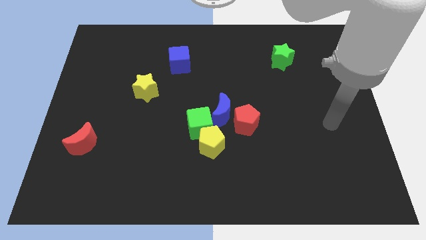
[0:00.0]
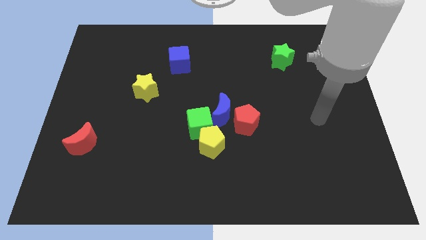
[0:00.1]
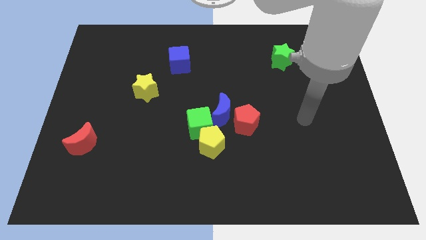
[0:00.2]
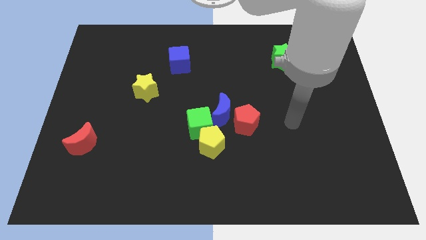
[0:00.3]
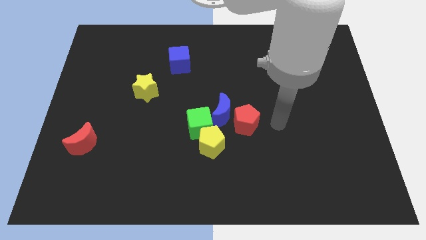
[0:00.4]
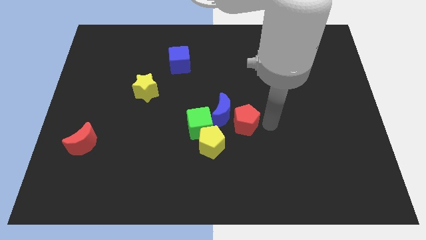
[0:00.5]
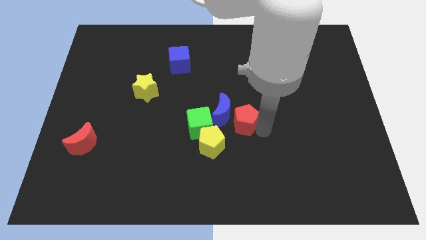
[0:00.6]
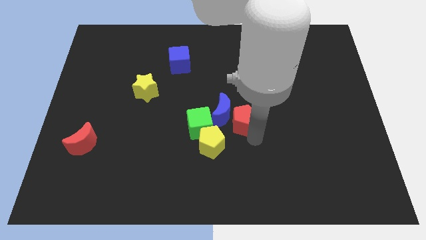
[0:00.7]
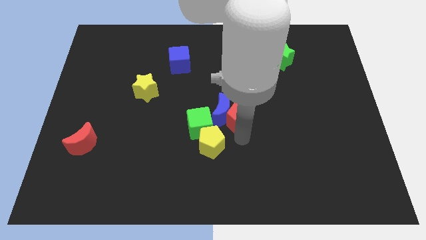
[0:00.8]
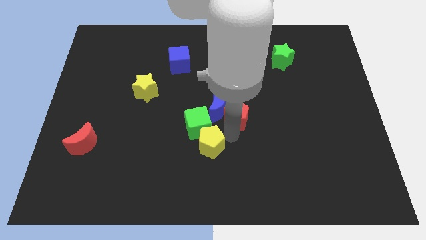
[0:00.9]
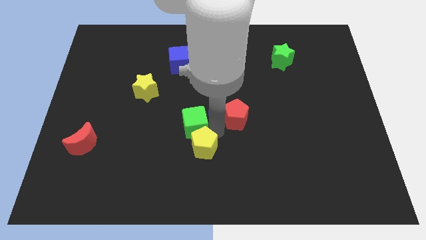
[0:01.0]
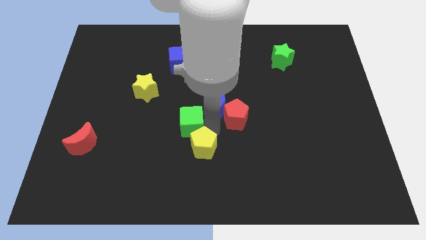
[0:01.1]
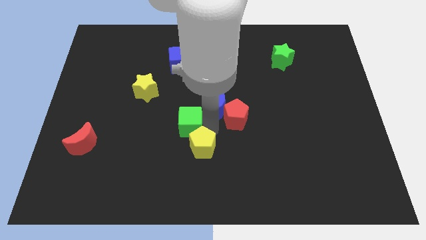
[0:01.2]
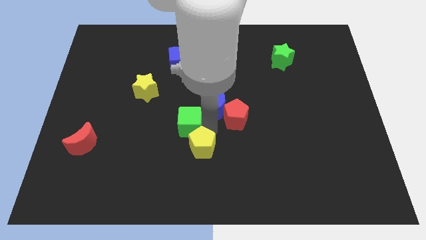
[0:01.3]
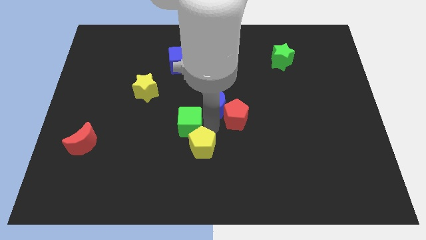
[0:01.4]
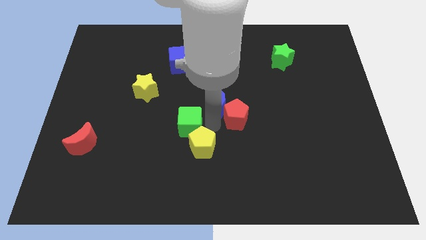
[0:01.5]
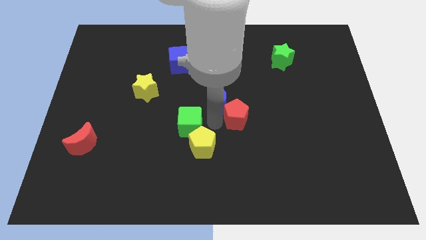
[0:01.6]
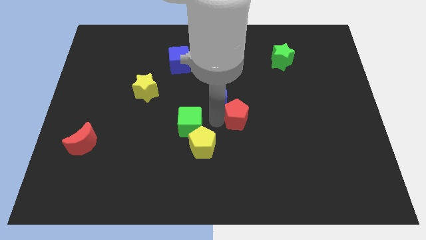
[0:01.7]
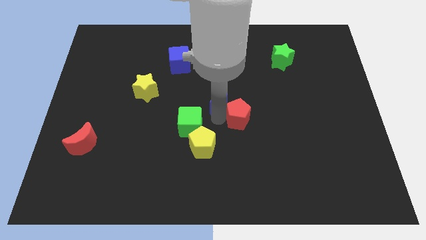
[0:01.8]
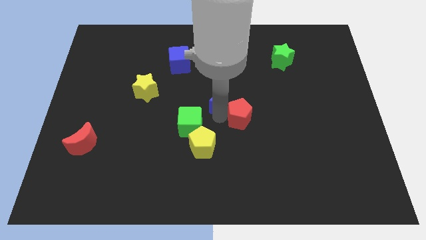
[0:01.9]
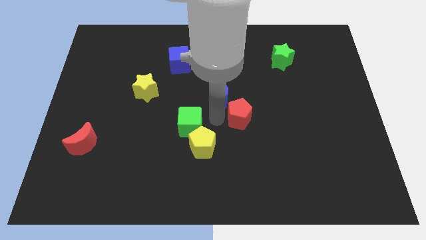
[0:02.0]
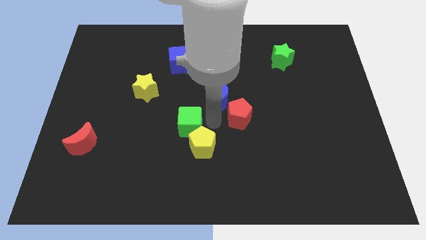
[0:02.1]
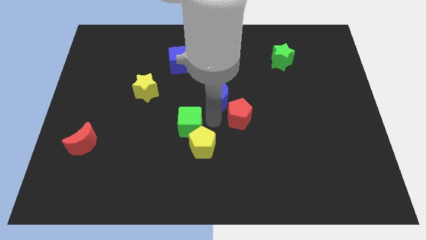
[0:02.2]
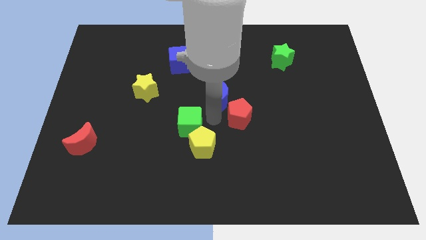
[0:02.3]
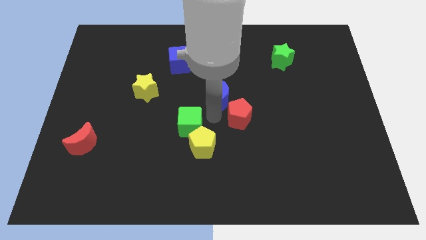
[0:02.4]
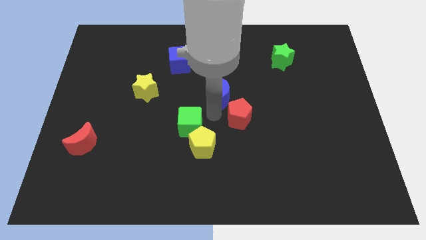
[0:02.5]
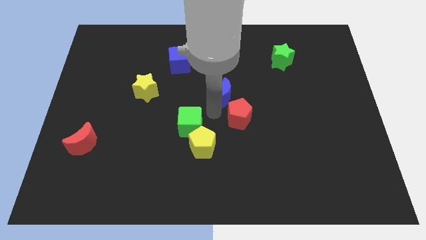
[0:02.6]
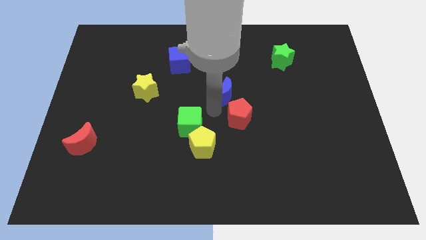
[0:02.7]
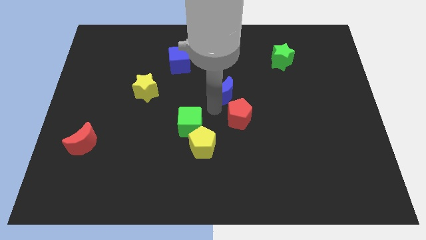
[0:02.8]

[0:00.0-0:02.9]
separate the blue moon from the red pentagon, green cube, and yellow pentagon

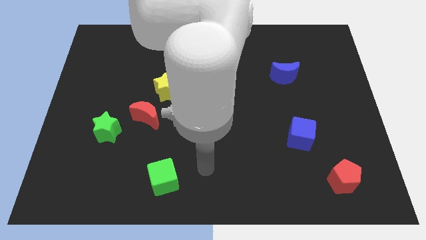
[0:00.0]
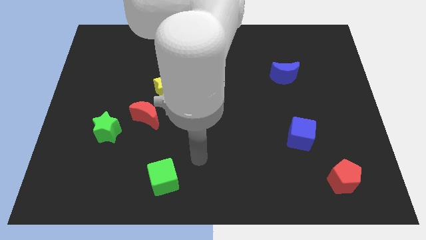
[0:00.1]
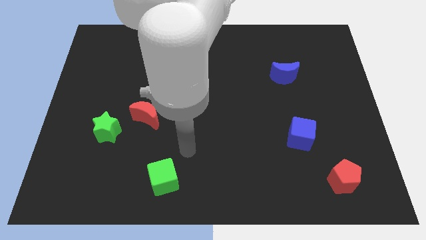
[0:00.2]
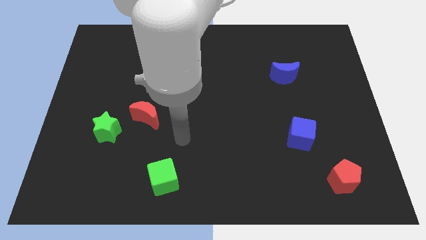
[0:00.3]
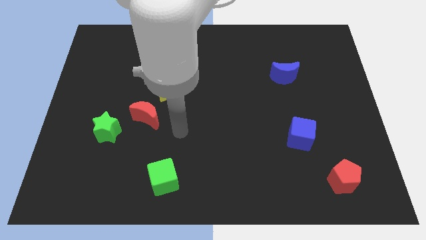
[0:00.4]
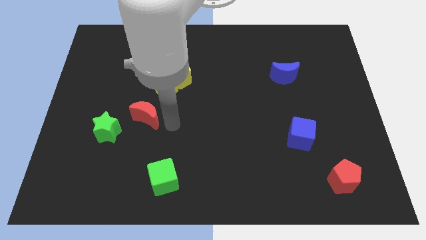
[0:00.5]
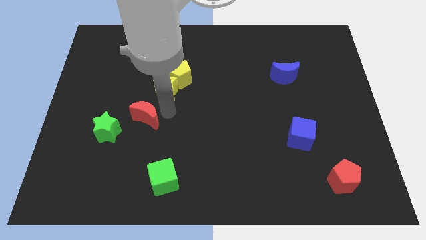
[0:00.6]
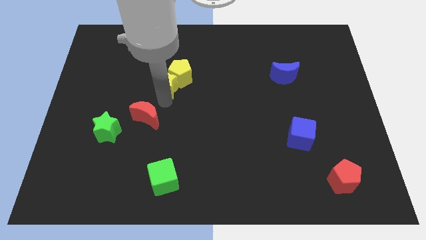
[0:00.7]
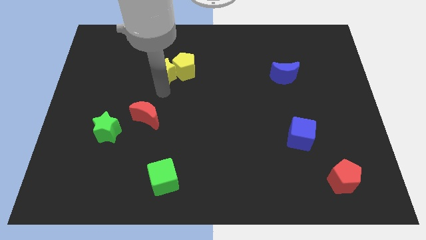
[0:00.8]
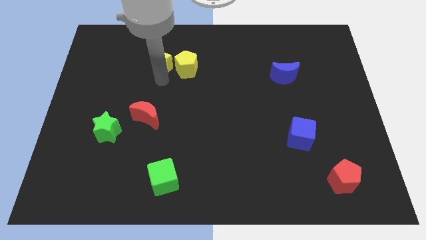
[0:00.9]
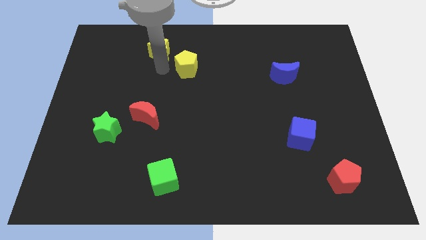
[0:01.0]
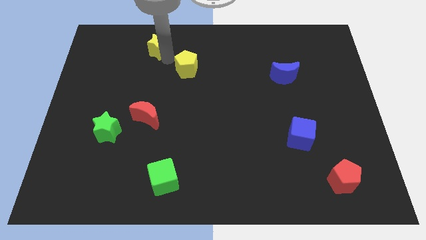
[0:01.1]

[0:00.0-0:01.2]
pull the yellow pentagon apart from the yellow star

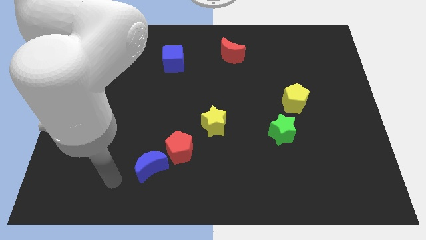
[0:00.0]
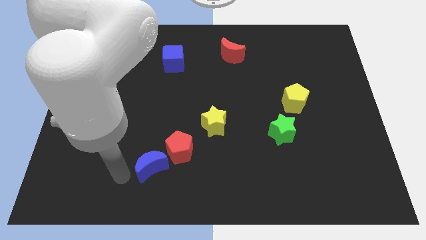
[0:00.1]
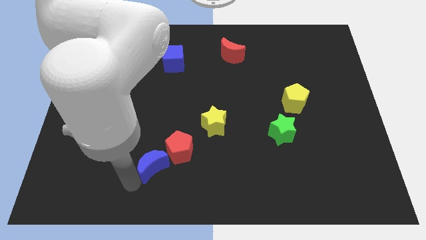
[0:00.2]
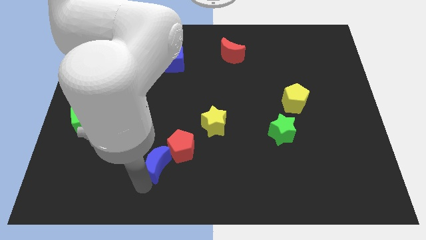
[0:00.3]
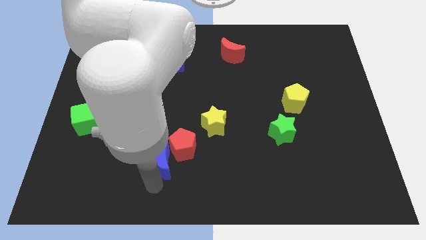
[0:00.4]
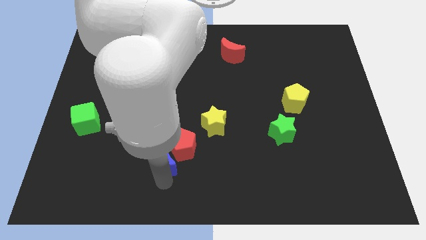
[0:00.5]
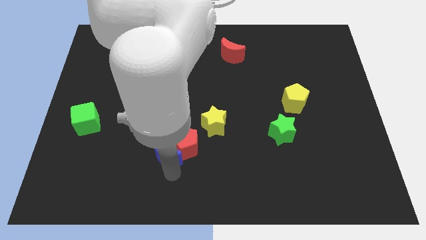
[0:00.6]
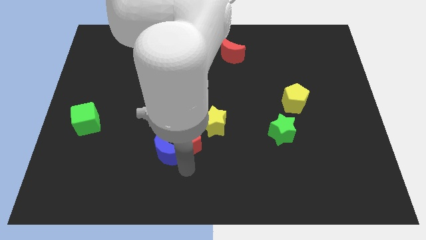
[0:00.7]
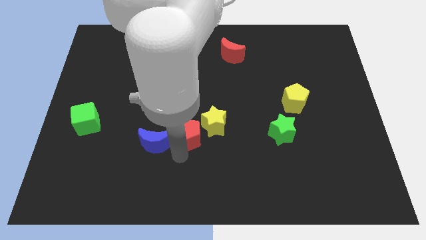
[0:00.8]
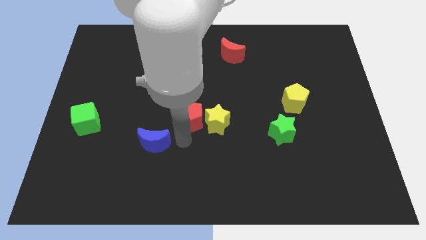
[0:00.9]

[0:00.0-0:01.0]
move the blue moon away from the red pentagon

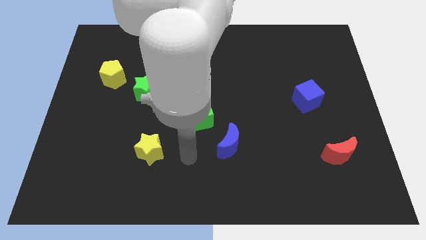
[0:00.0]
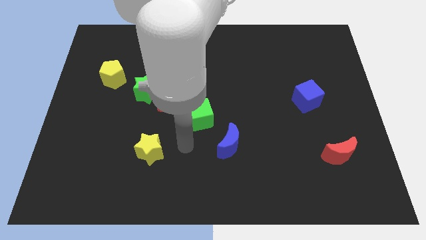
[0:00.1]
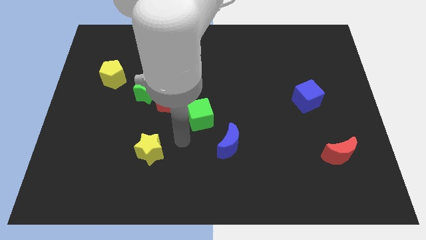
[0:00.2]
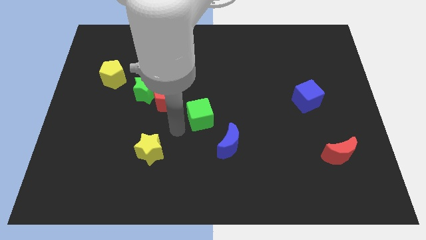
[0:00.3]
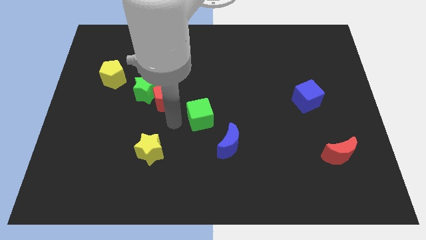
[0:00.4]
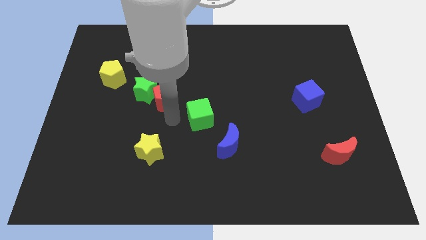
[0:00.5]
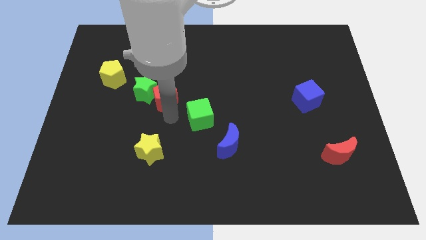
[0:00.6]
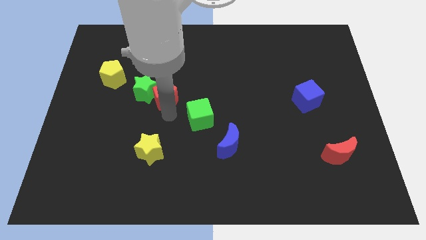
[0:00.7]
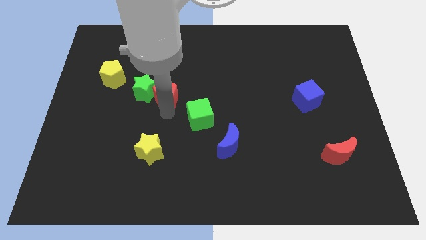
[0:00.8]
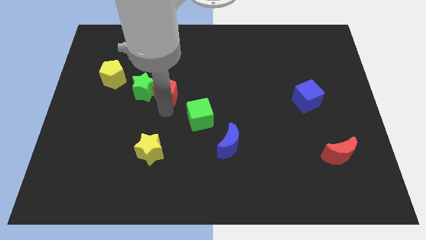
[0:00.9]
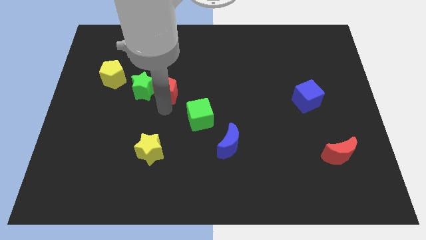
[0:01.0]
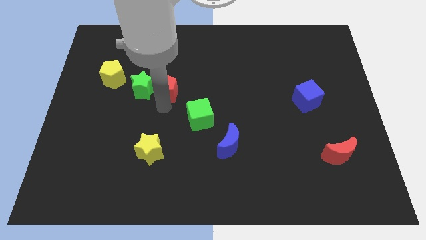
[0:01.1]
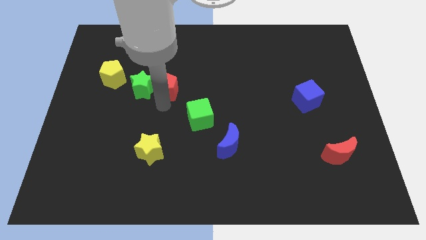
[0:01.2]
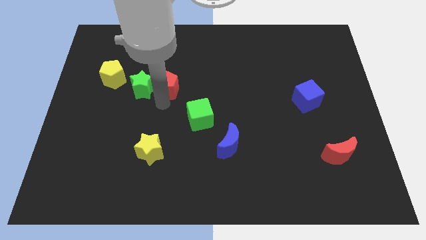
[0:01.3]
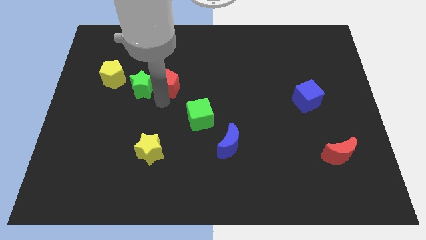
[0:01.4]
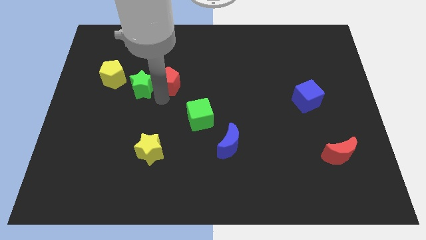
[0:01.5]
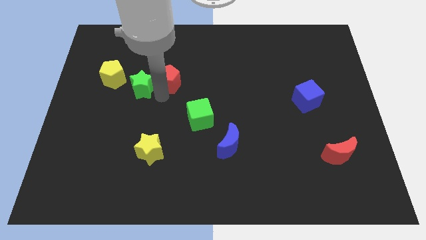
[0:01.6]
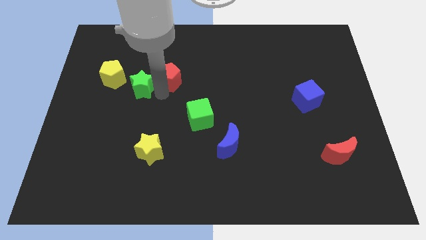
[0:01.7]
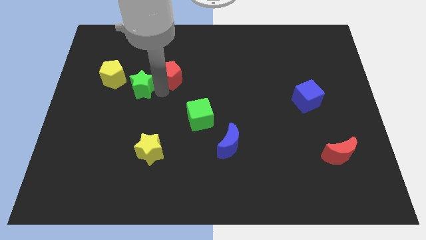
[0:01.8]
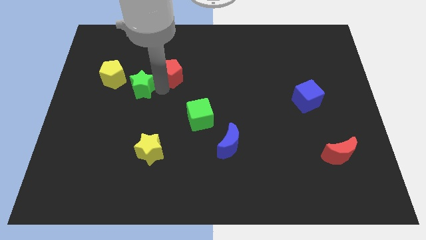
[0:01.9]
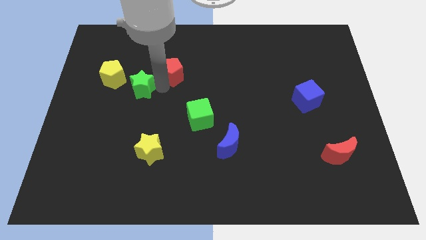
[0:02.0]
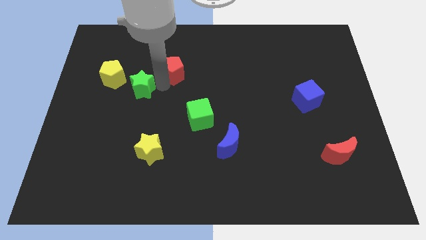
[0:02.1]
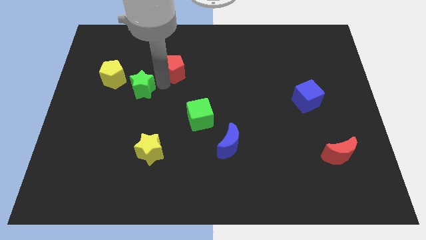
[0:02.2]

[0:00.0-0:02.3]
separate the red pentagon from the green star and green cube

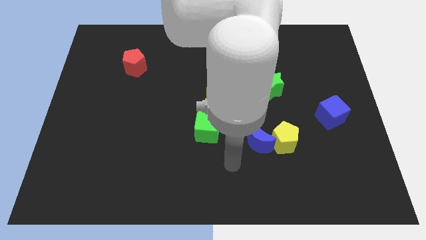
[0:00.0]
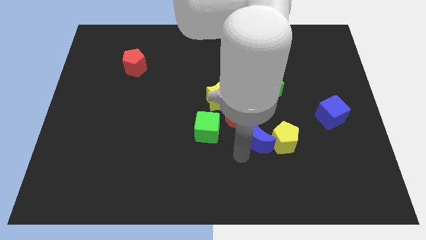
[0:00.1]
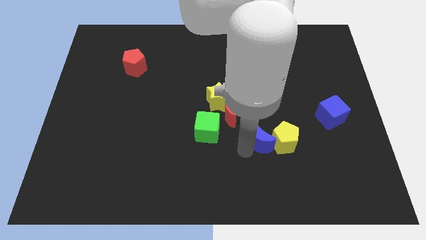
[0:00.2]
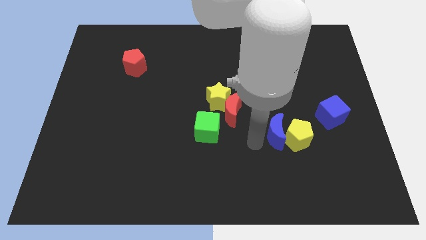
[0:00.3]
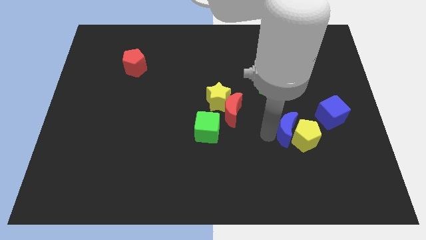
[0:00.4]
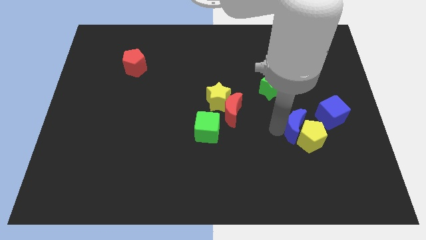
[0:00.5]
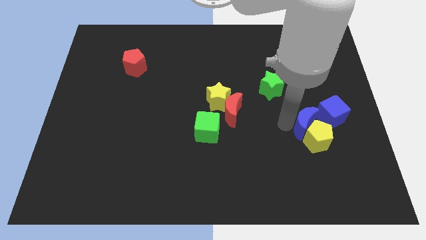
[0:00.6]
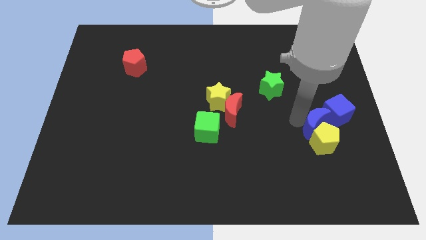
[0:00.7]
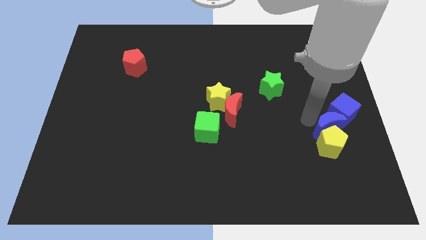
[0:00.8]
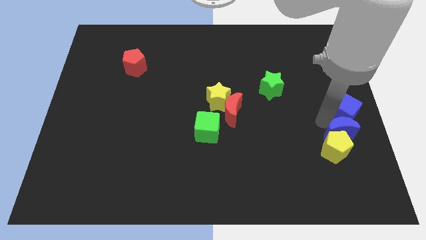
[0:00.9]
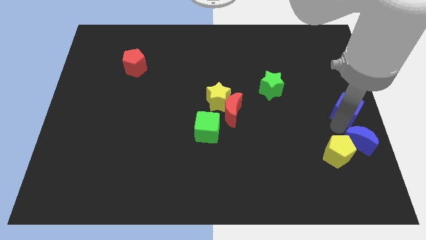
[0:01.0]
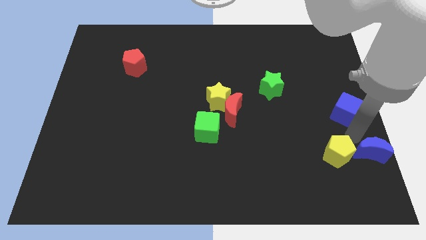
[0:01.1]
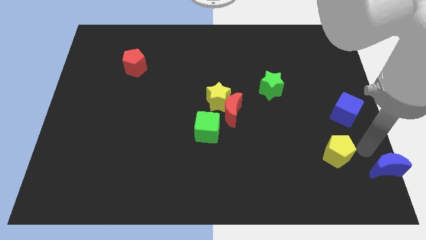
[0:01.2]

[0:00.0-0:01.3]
separate the yellow pentagon from the blue moon

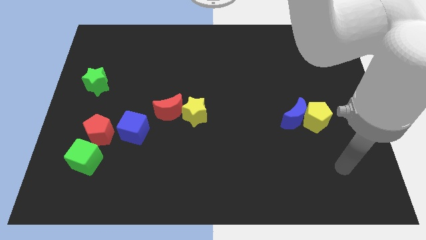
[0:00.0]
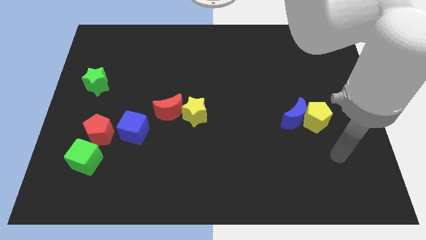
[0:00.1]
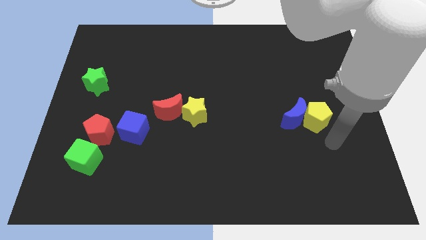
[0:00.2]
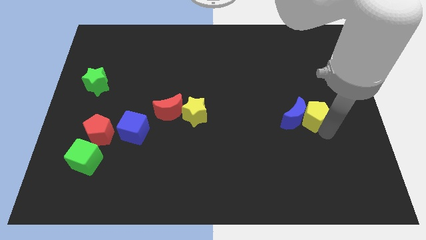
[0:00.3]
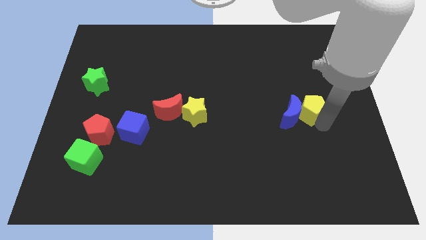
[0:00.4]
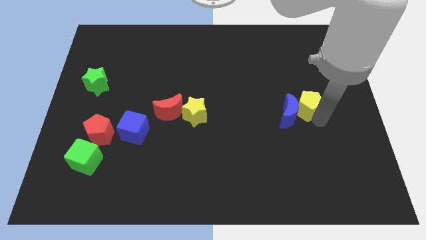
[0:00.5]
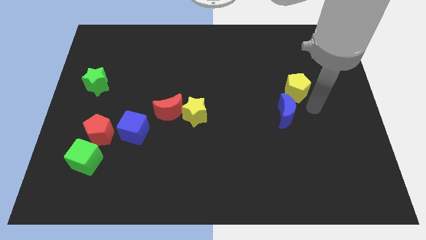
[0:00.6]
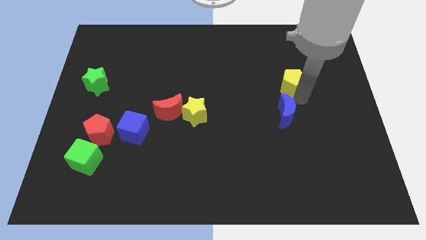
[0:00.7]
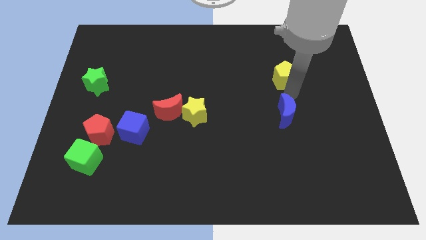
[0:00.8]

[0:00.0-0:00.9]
pull the blue moon apart from the yellow pentagon
